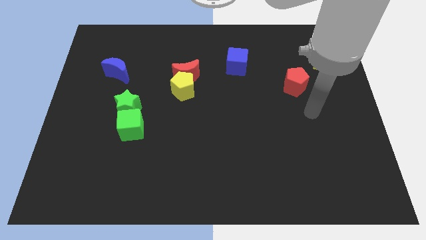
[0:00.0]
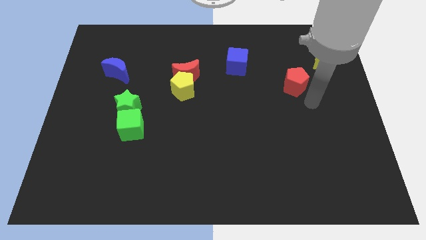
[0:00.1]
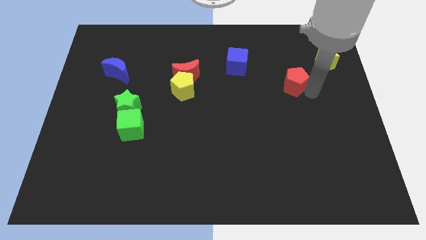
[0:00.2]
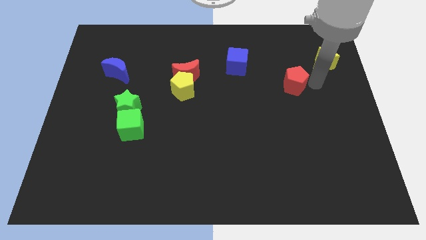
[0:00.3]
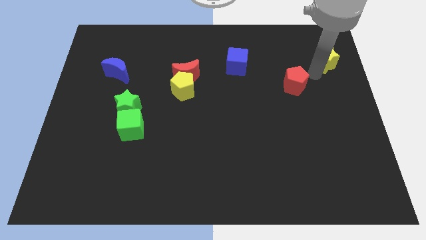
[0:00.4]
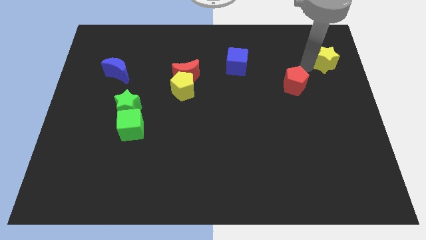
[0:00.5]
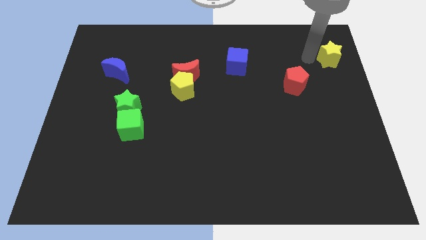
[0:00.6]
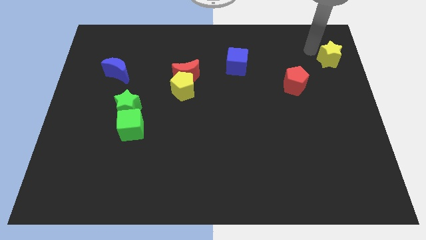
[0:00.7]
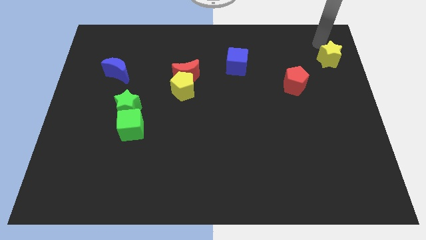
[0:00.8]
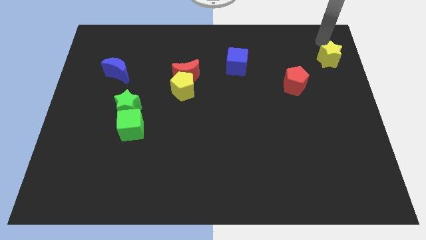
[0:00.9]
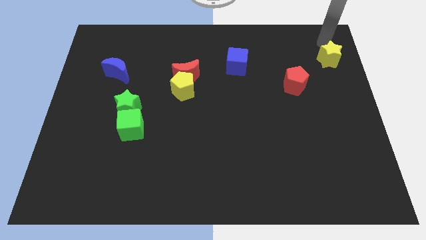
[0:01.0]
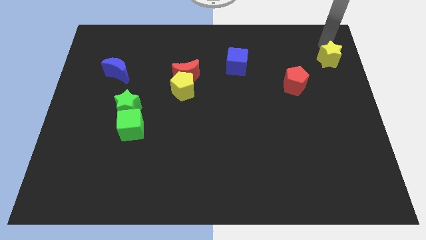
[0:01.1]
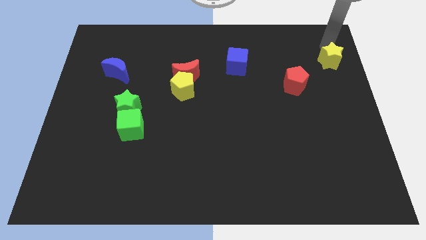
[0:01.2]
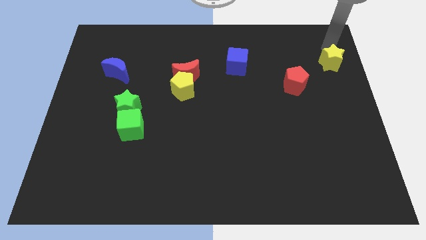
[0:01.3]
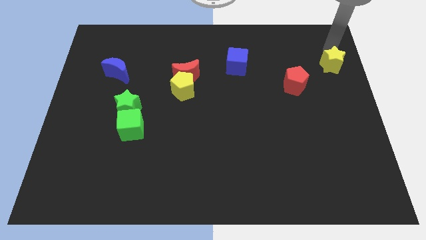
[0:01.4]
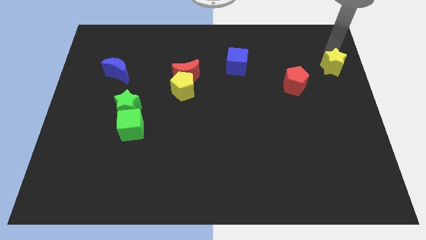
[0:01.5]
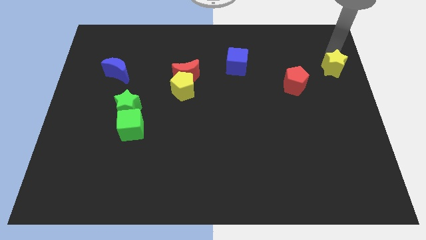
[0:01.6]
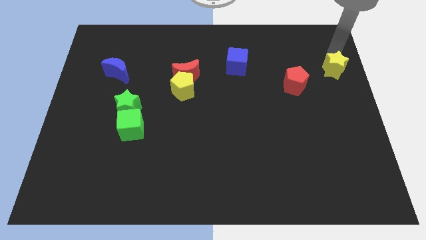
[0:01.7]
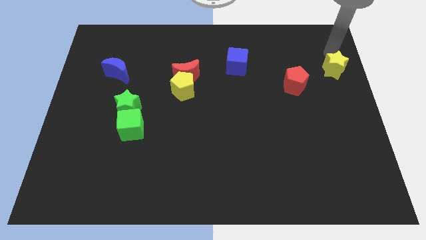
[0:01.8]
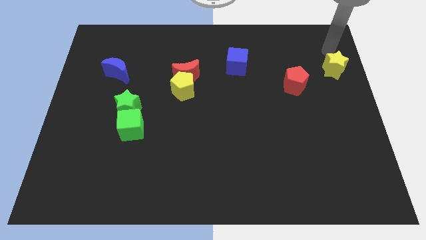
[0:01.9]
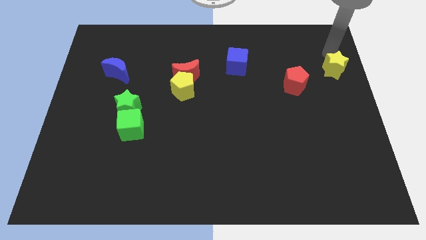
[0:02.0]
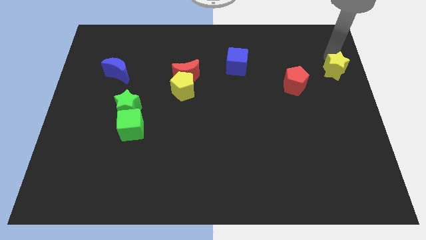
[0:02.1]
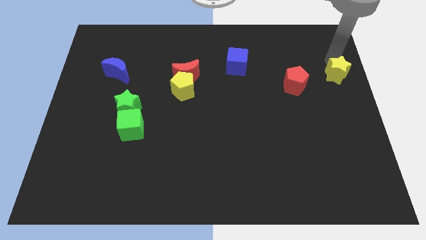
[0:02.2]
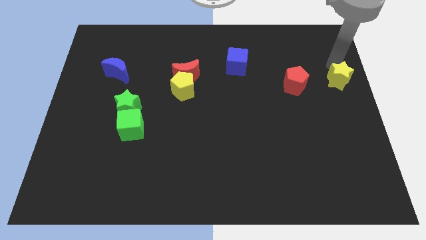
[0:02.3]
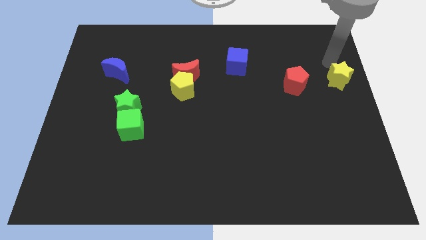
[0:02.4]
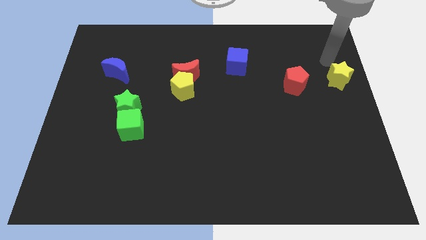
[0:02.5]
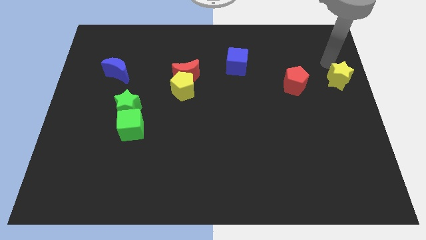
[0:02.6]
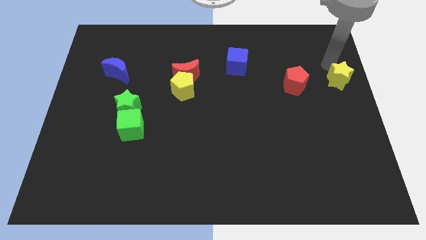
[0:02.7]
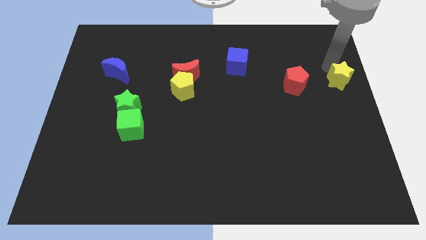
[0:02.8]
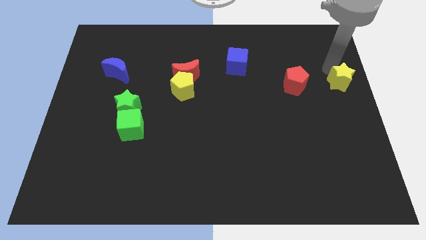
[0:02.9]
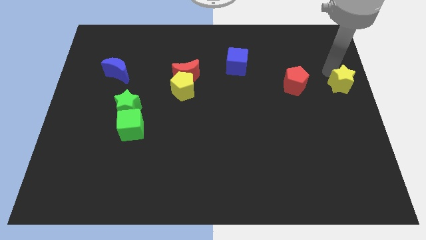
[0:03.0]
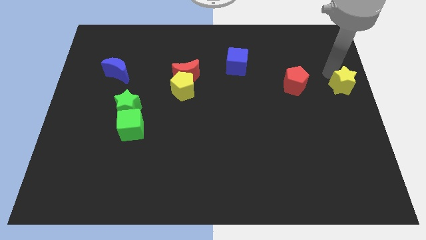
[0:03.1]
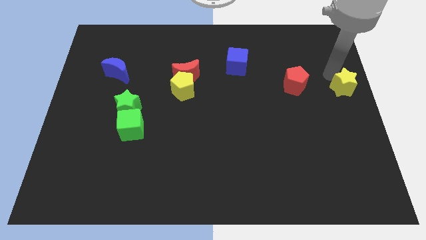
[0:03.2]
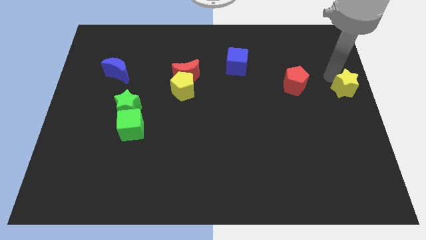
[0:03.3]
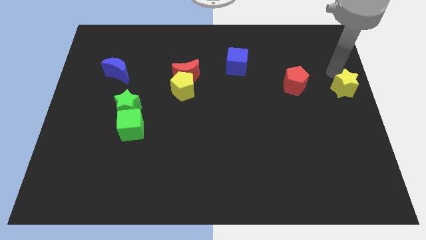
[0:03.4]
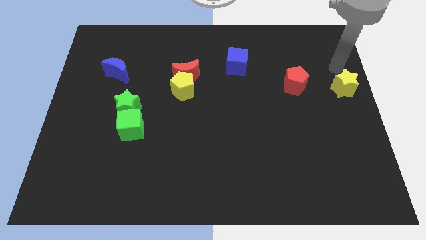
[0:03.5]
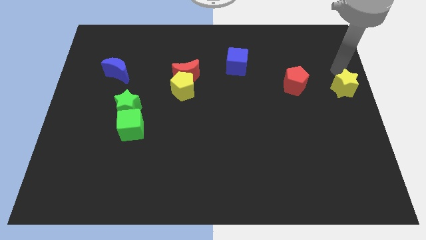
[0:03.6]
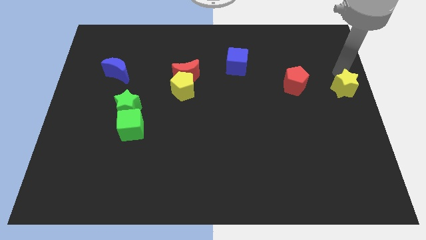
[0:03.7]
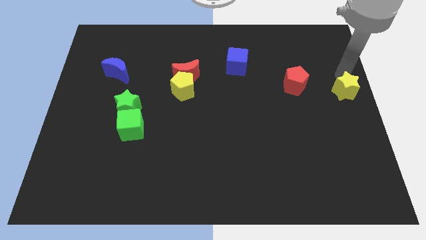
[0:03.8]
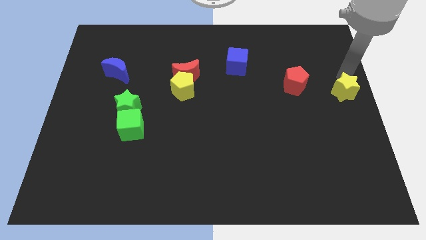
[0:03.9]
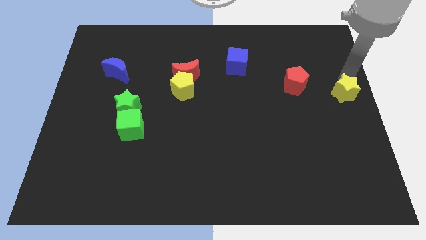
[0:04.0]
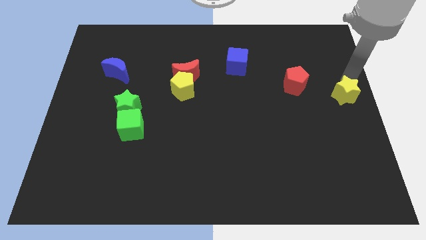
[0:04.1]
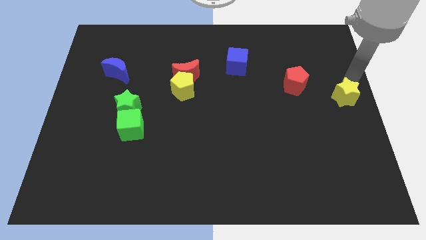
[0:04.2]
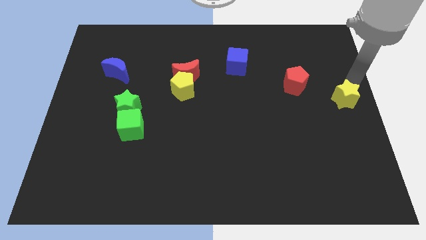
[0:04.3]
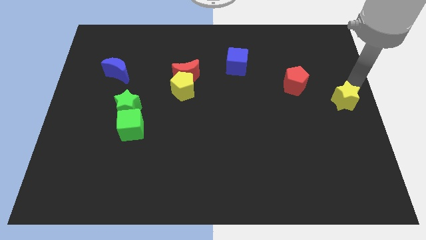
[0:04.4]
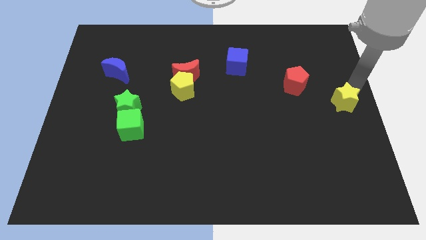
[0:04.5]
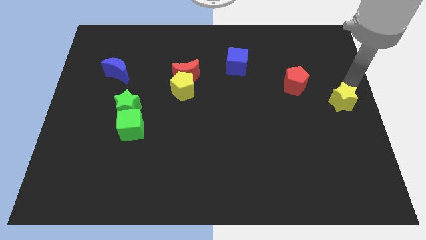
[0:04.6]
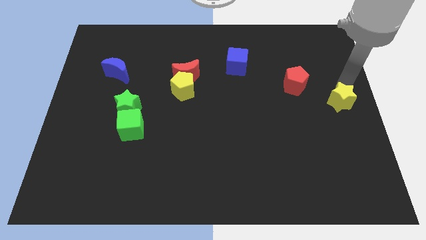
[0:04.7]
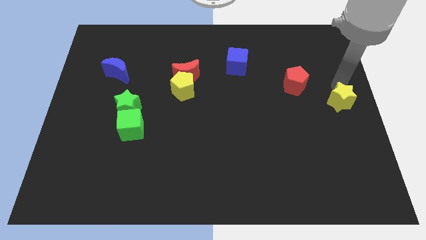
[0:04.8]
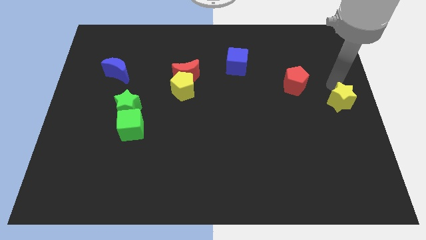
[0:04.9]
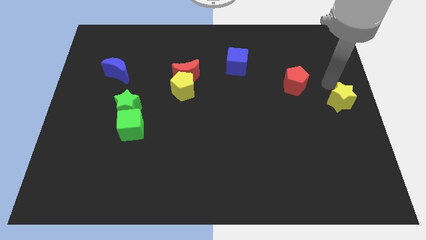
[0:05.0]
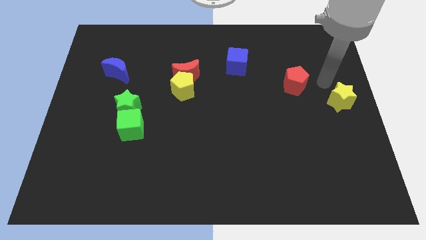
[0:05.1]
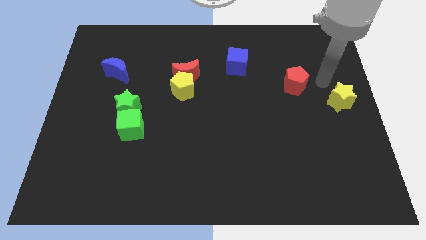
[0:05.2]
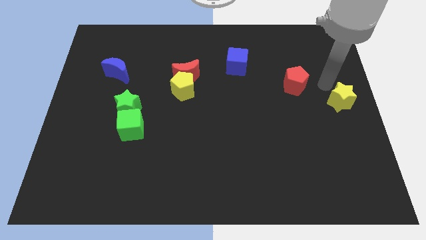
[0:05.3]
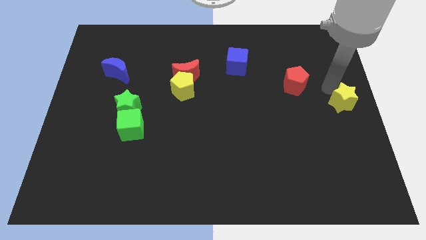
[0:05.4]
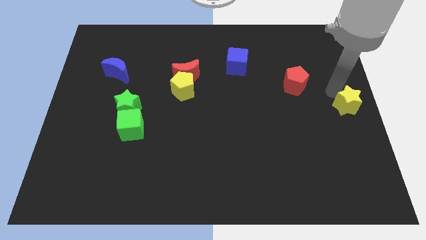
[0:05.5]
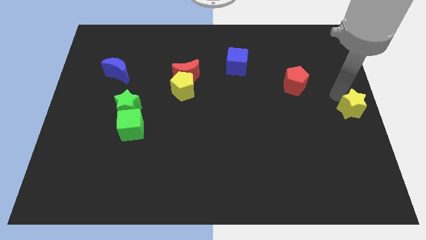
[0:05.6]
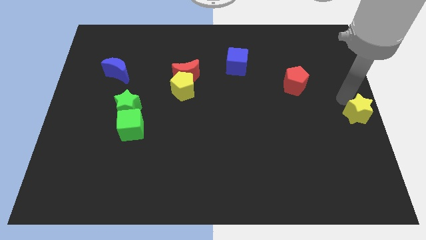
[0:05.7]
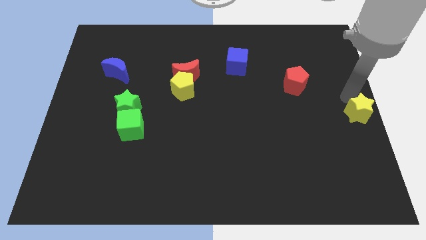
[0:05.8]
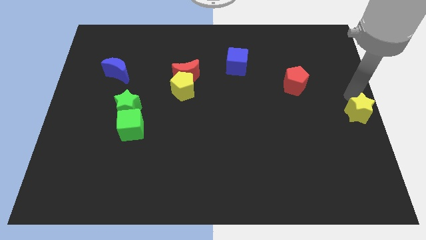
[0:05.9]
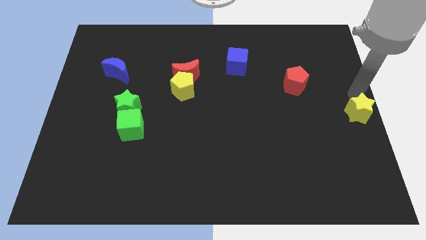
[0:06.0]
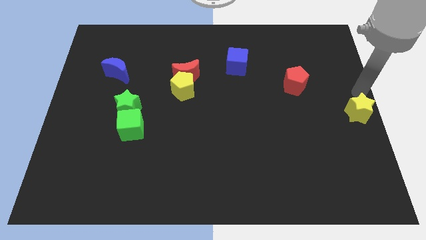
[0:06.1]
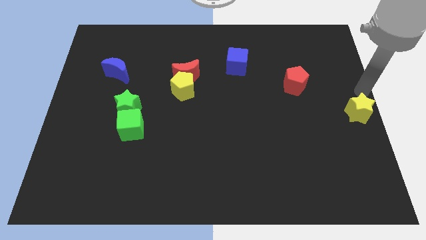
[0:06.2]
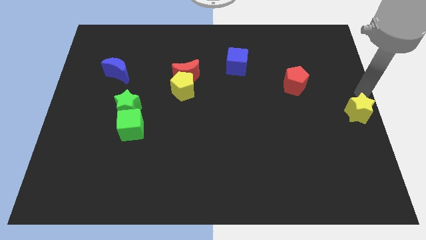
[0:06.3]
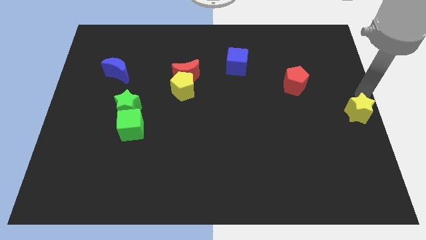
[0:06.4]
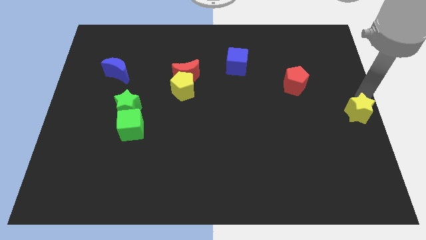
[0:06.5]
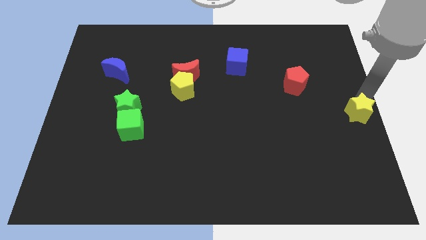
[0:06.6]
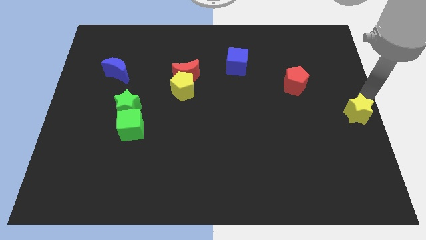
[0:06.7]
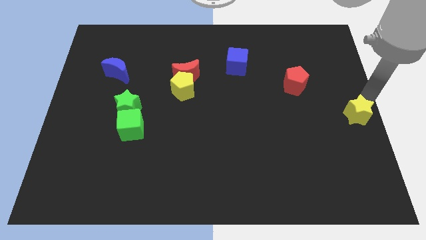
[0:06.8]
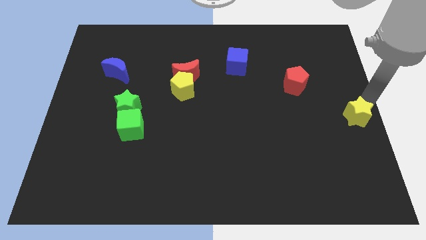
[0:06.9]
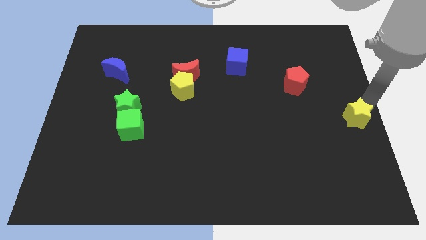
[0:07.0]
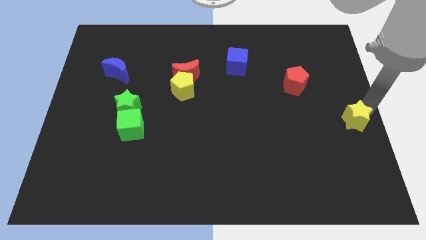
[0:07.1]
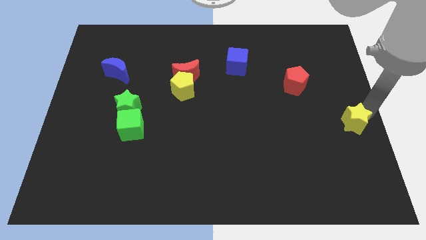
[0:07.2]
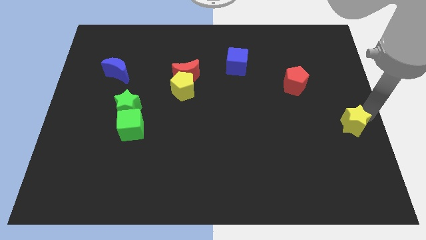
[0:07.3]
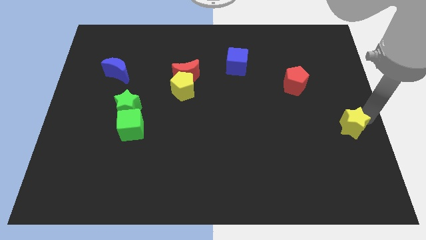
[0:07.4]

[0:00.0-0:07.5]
move the yellow star downwards

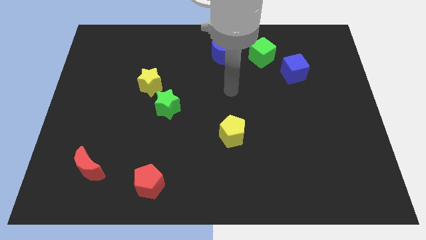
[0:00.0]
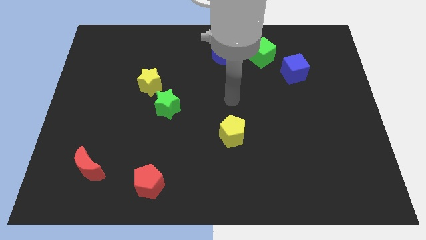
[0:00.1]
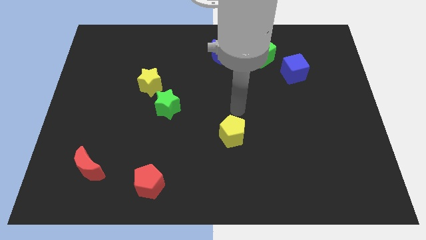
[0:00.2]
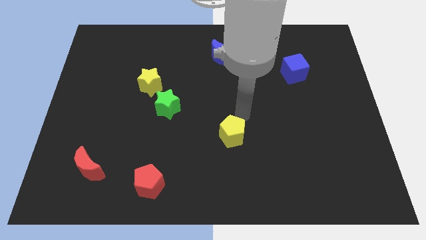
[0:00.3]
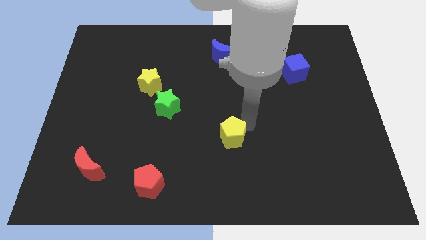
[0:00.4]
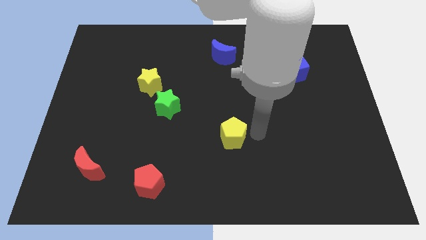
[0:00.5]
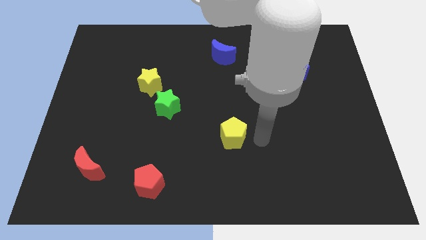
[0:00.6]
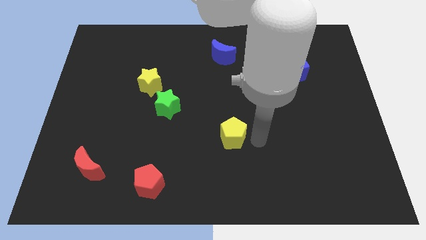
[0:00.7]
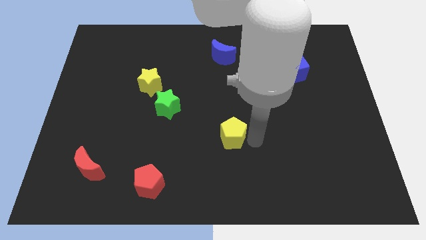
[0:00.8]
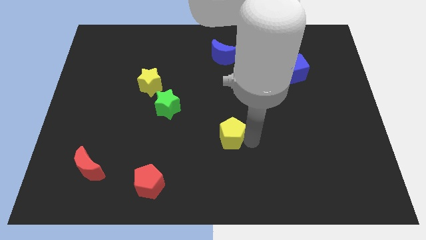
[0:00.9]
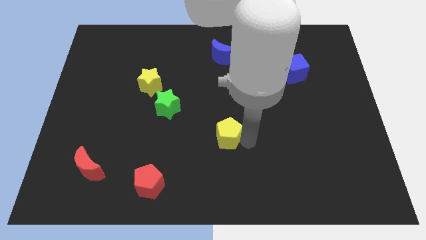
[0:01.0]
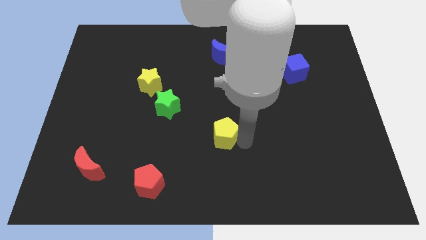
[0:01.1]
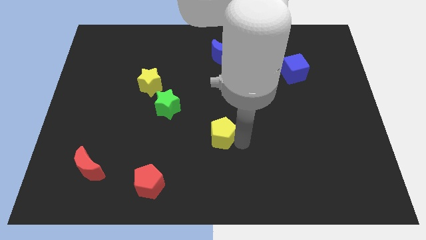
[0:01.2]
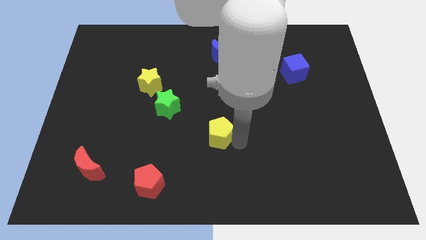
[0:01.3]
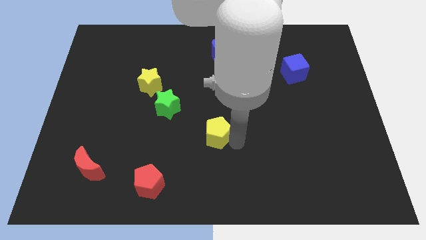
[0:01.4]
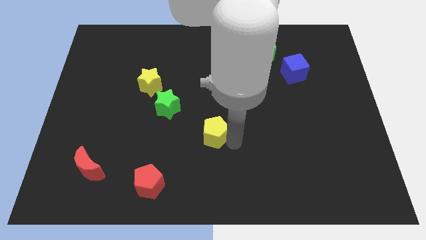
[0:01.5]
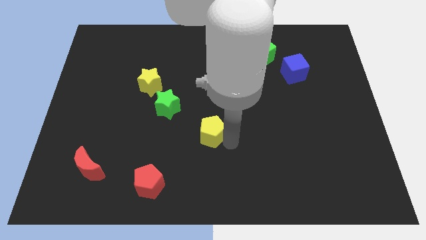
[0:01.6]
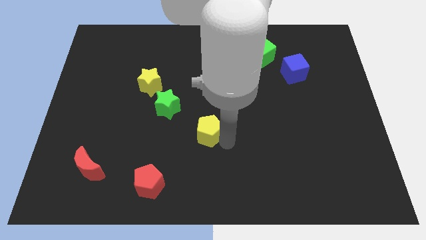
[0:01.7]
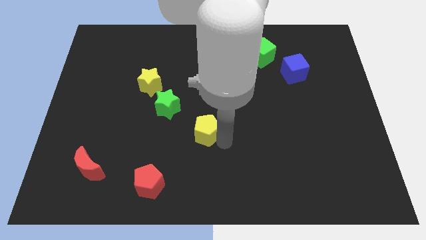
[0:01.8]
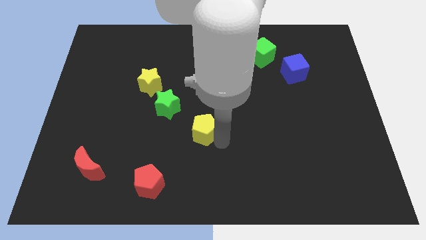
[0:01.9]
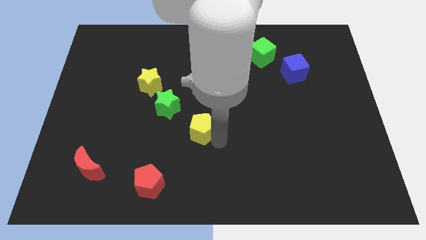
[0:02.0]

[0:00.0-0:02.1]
push the yellow pentagon to the left somewhat
